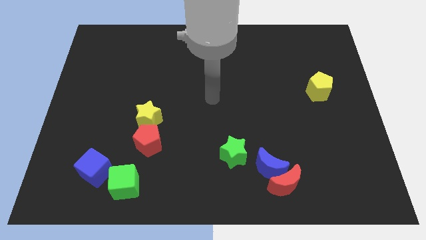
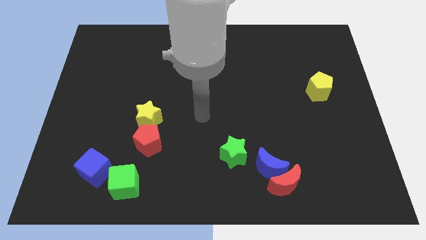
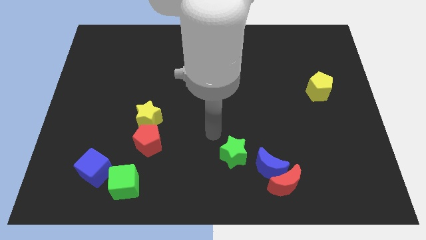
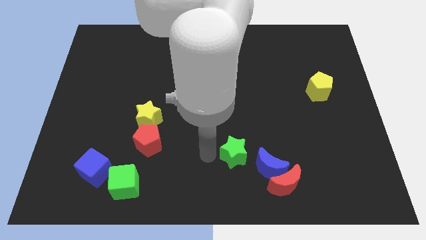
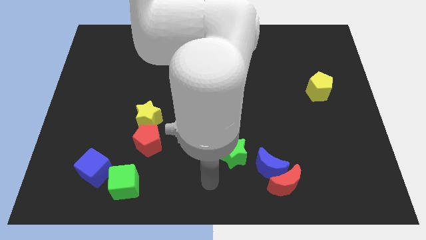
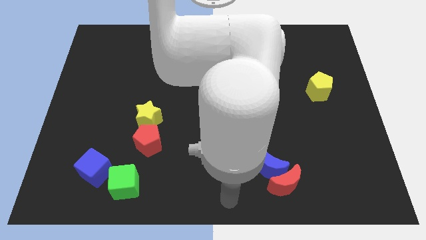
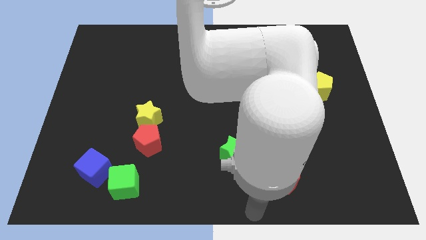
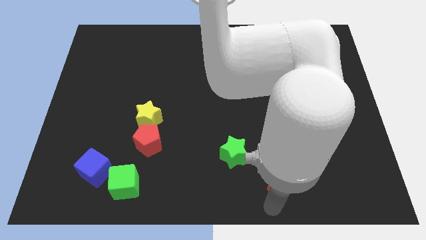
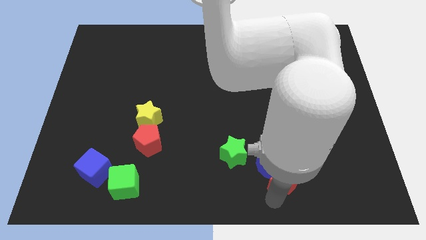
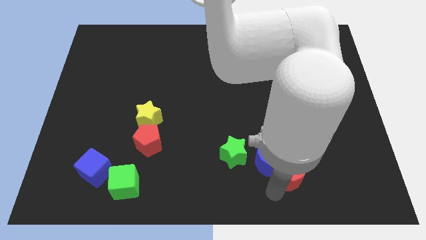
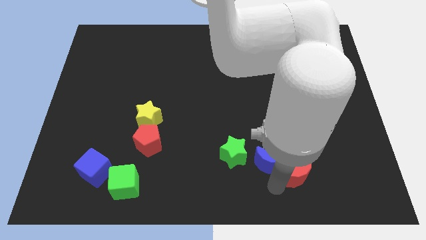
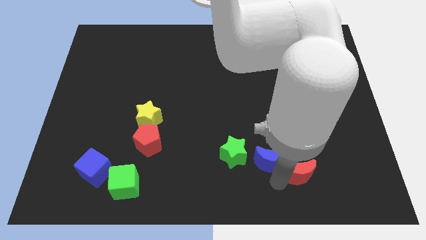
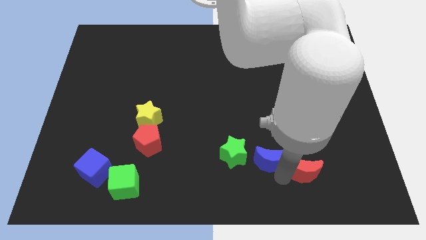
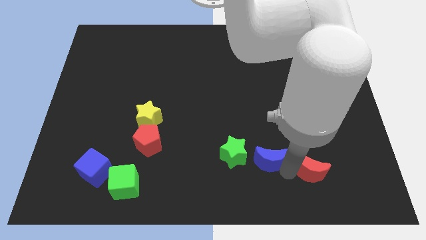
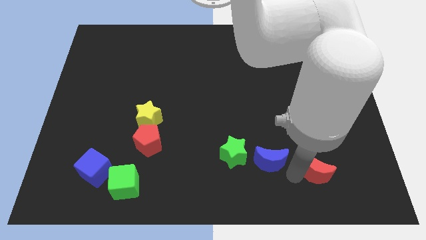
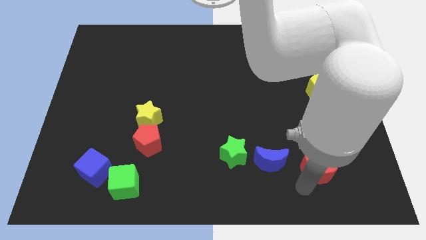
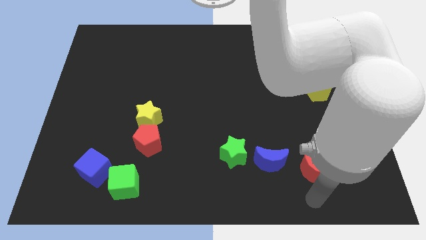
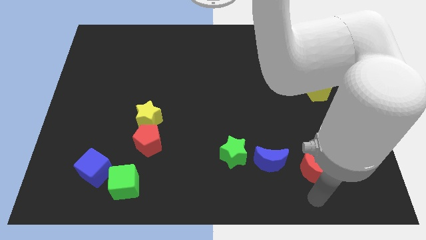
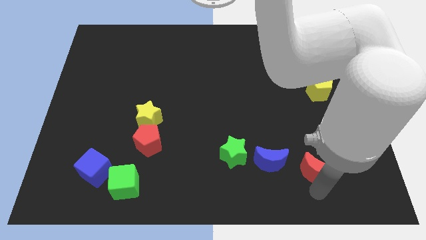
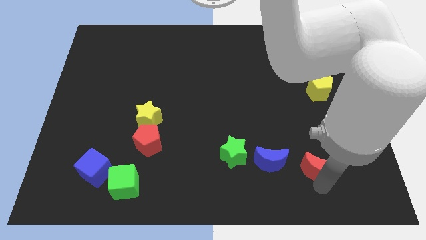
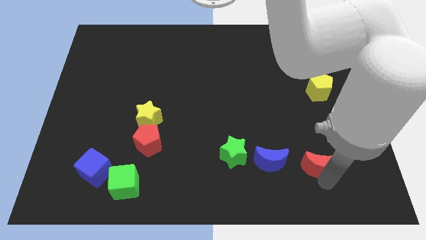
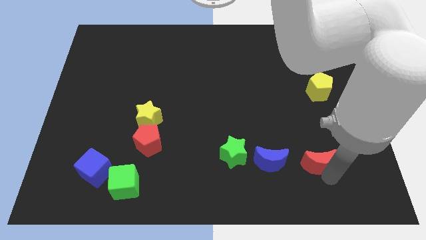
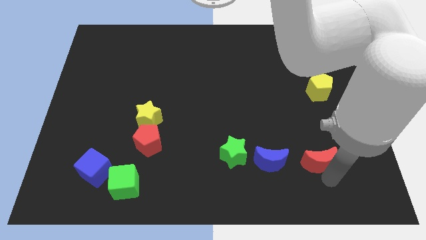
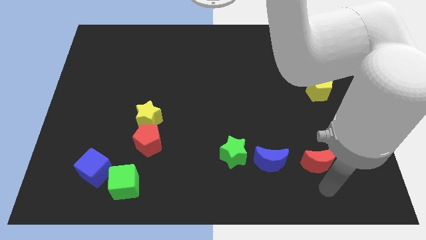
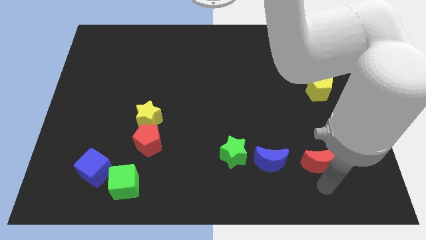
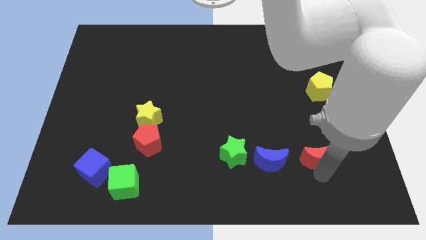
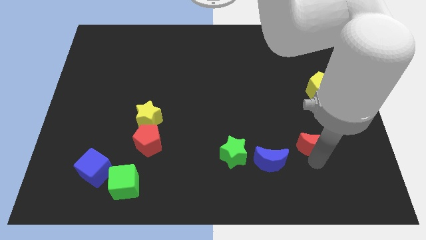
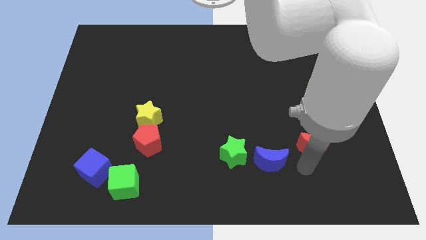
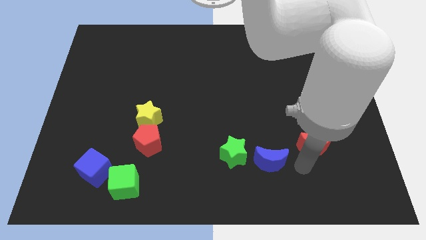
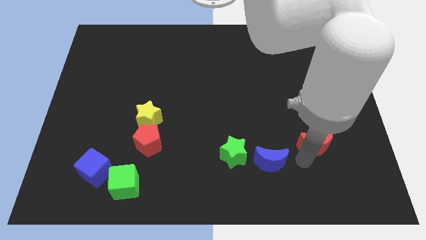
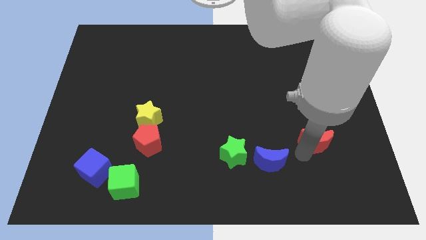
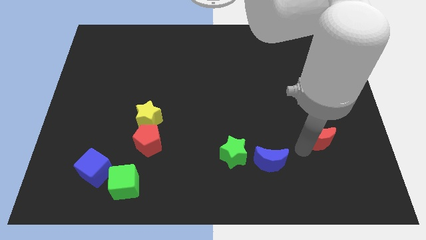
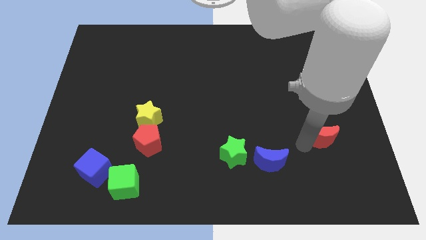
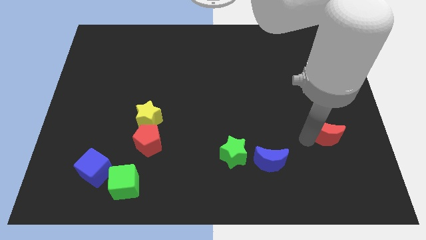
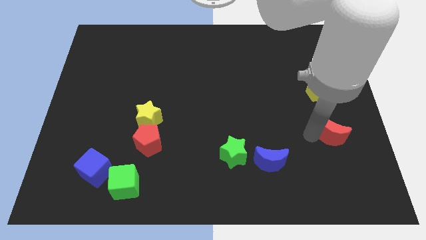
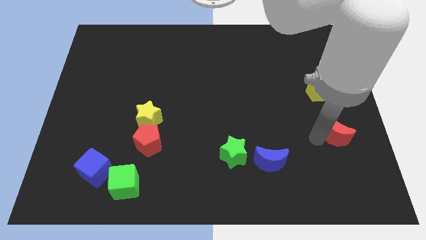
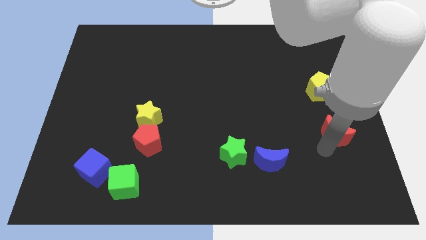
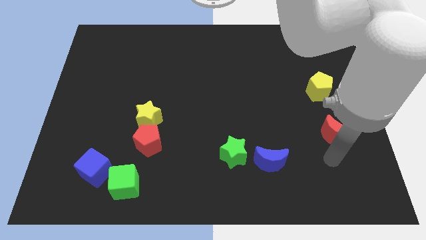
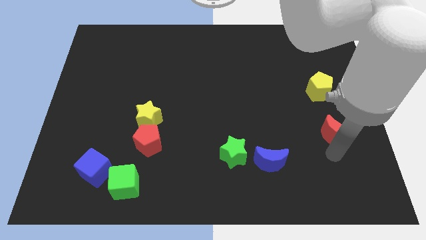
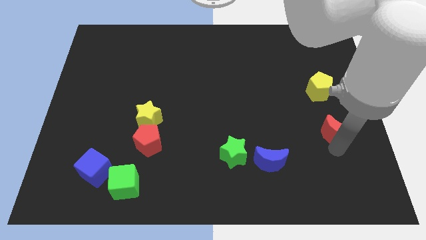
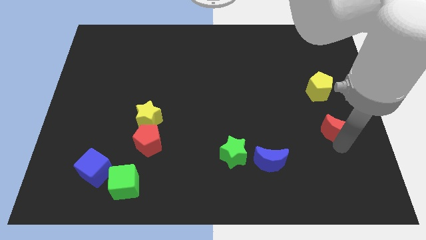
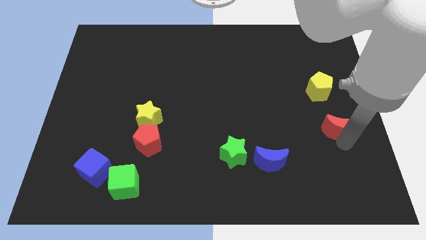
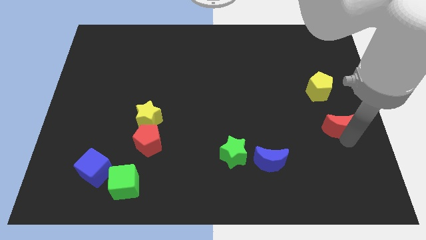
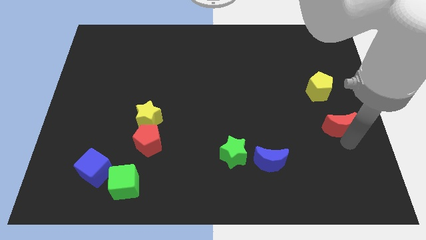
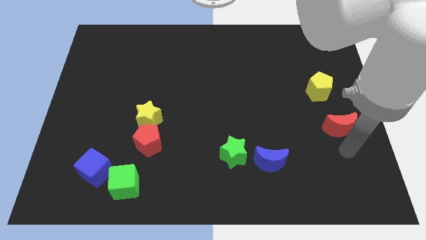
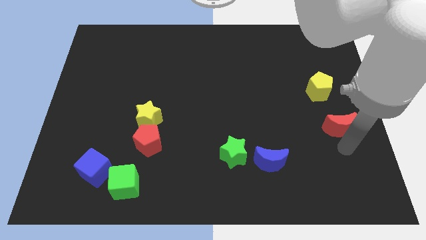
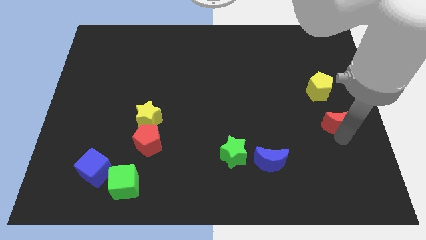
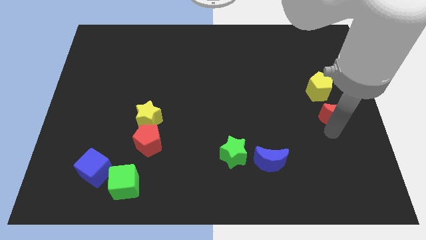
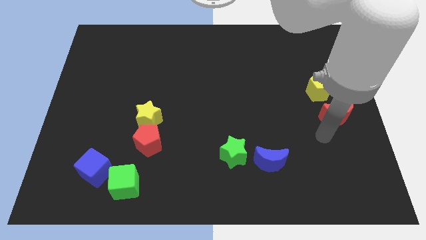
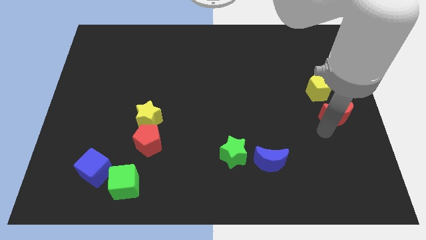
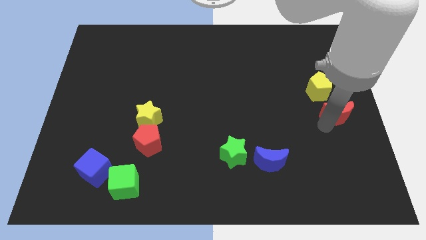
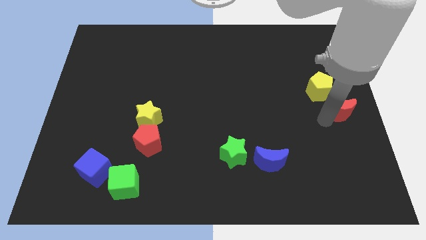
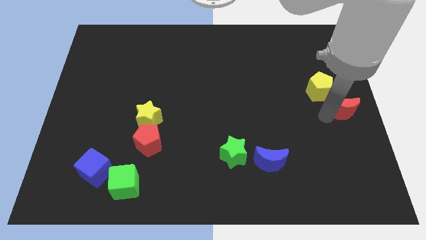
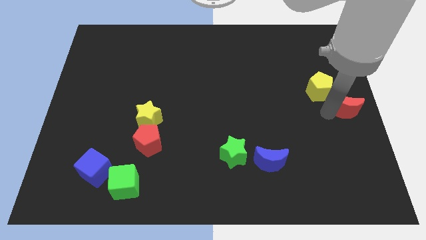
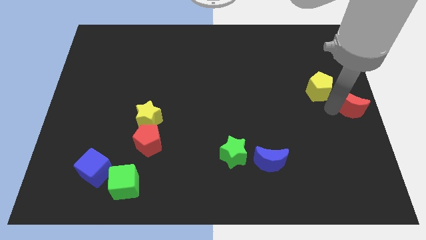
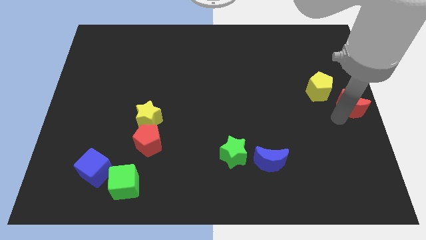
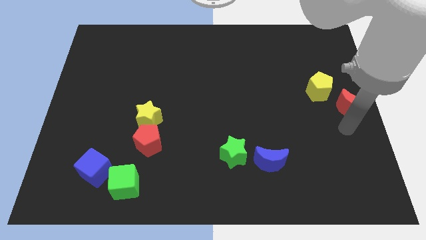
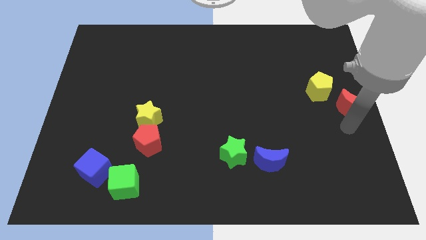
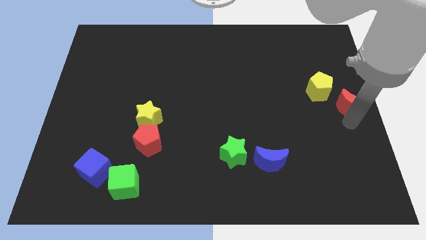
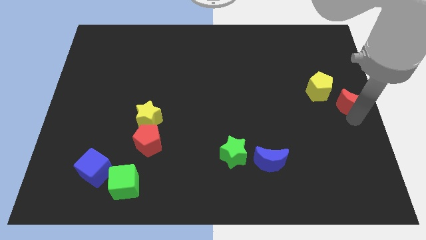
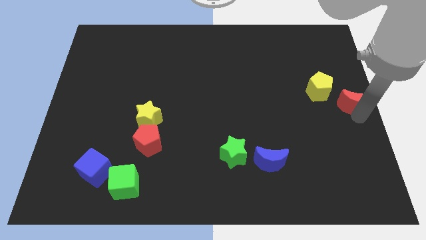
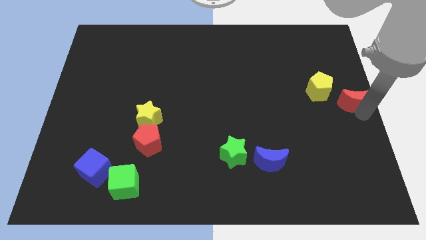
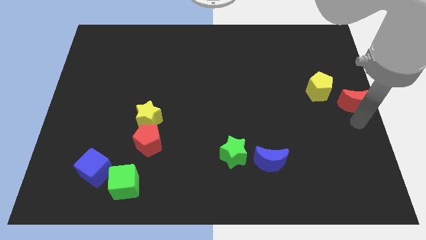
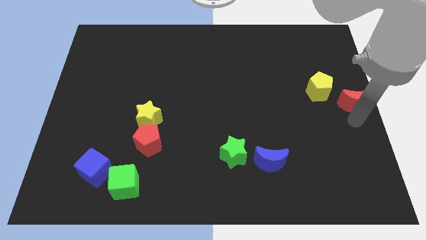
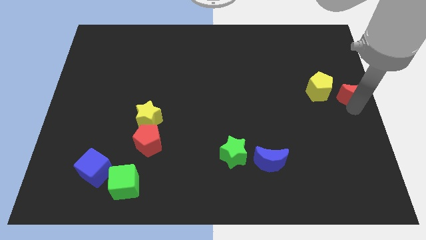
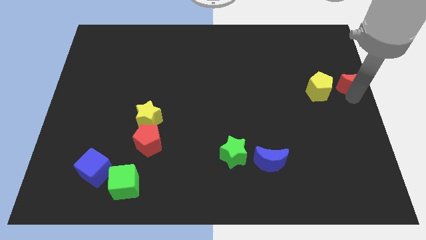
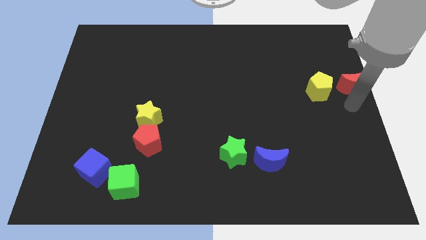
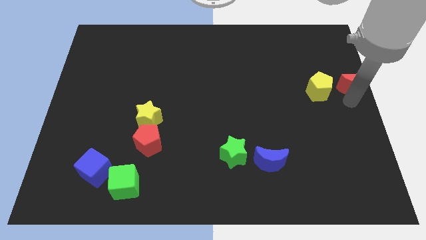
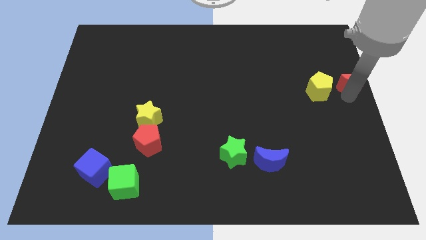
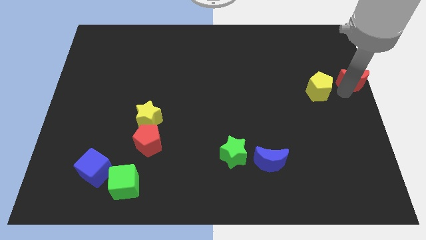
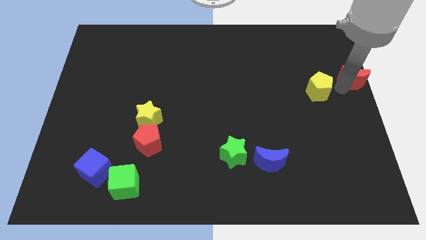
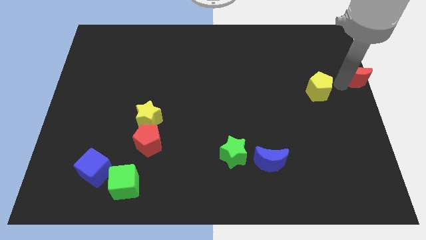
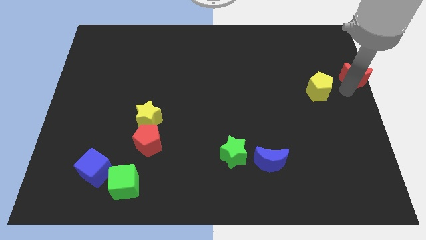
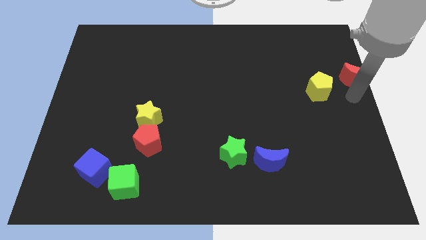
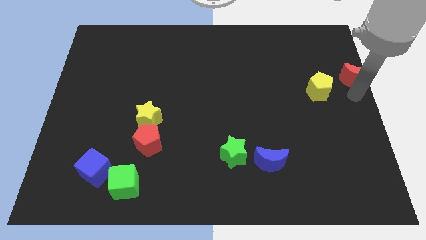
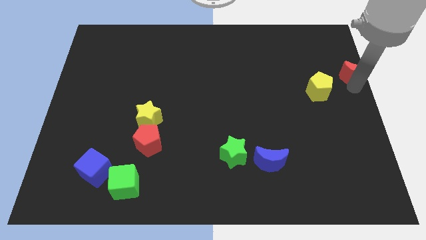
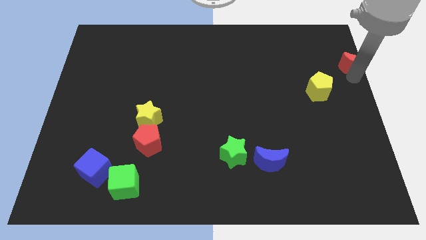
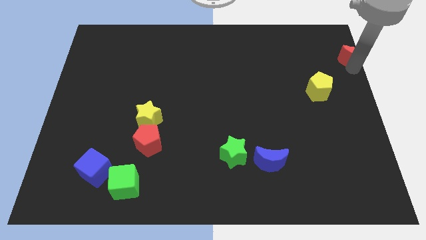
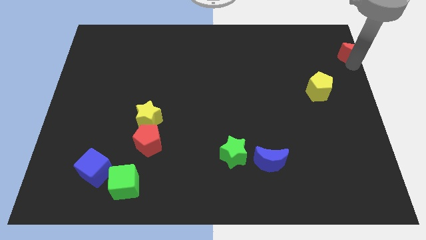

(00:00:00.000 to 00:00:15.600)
push the red moon to the top right corner
